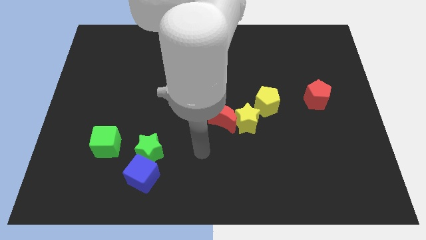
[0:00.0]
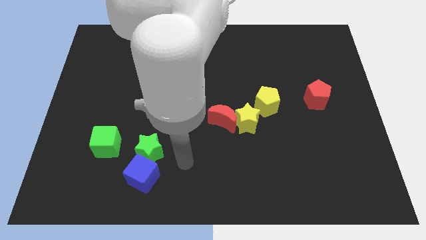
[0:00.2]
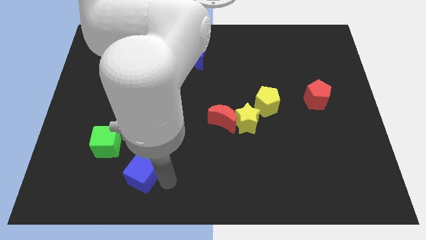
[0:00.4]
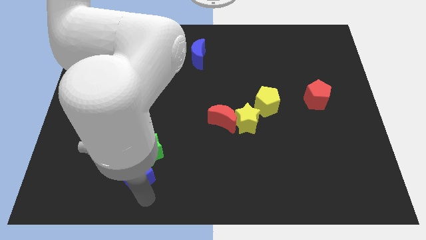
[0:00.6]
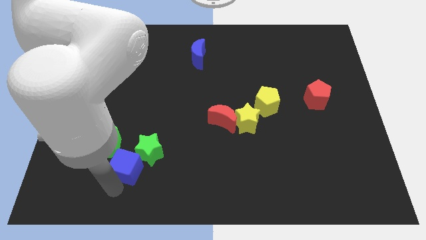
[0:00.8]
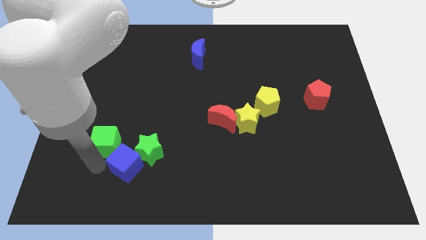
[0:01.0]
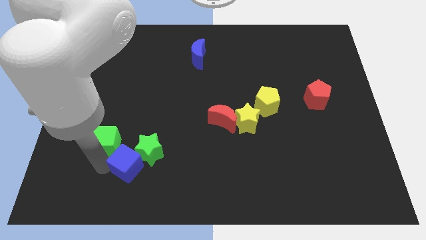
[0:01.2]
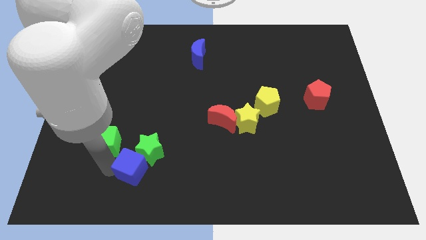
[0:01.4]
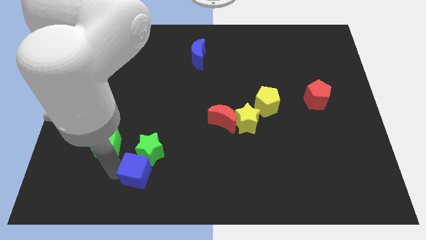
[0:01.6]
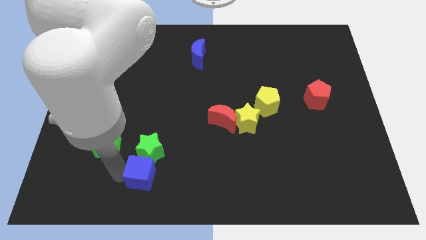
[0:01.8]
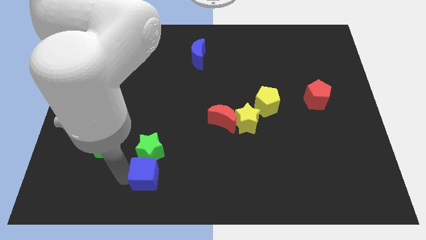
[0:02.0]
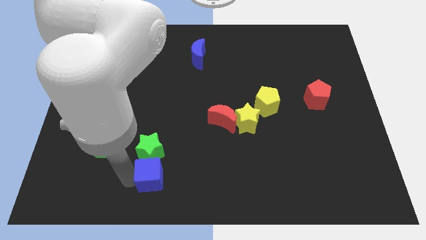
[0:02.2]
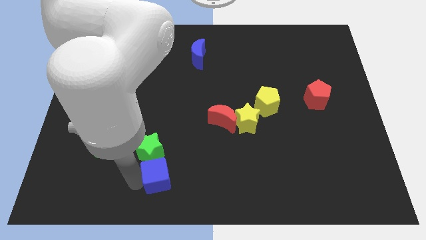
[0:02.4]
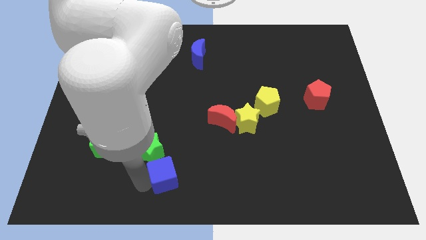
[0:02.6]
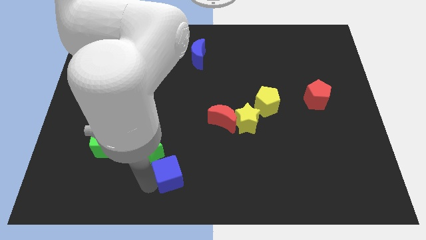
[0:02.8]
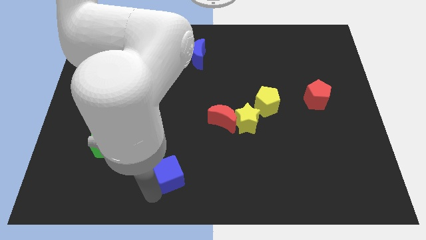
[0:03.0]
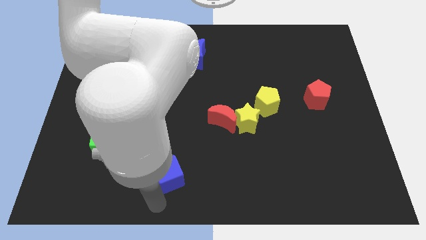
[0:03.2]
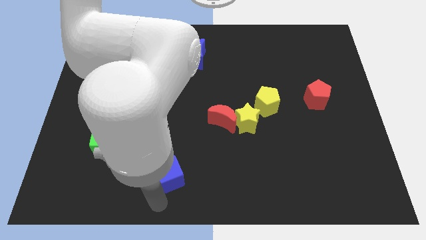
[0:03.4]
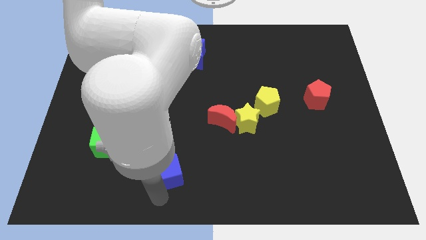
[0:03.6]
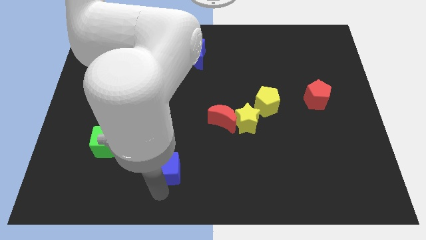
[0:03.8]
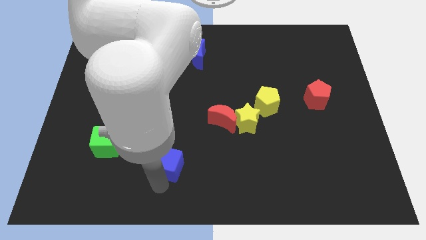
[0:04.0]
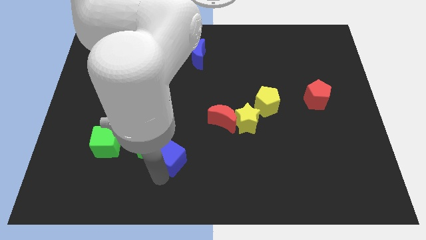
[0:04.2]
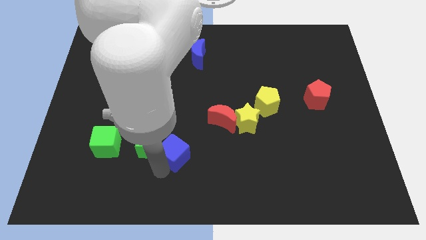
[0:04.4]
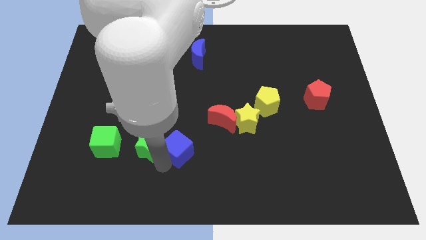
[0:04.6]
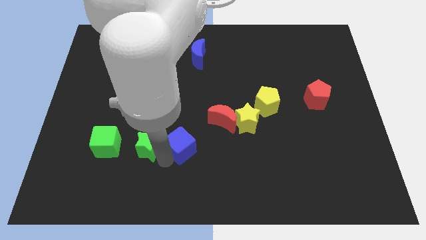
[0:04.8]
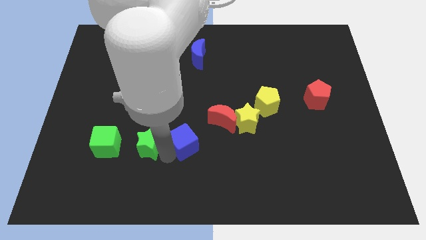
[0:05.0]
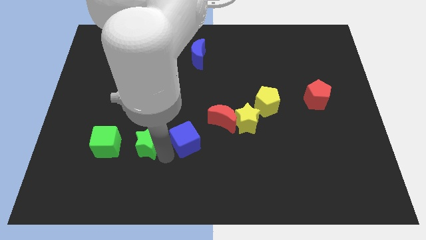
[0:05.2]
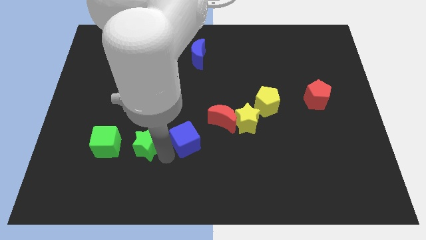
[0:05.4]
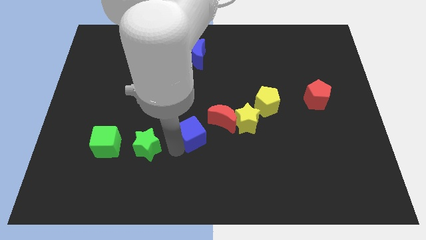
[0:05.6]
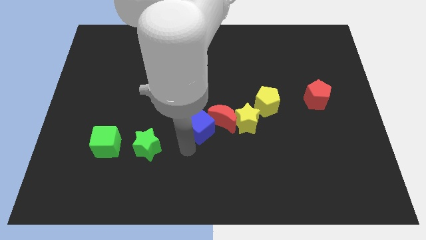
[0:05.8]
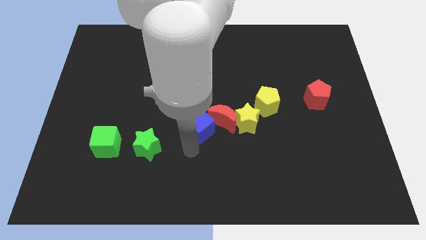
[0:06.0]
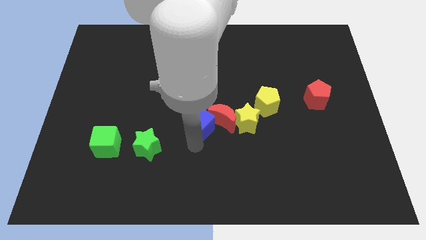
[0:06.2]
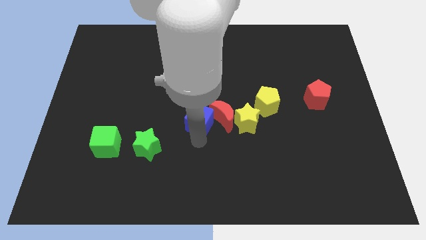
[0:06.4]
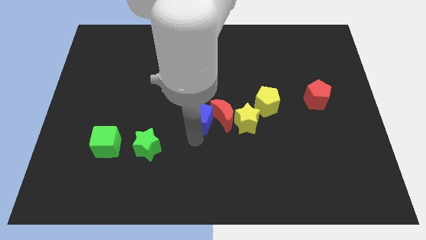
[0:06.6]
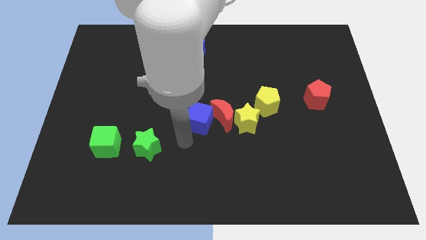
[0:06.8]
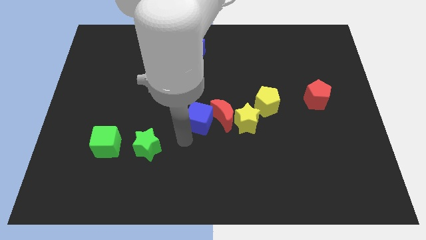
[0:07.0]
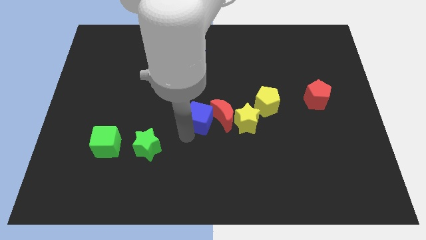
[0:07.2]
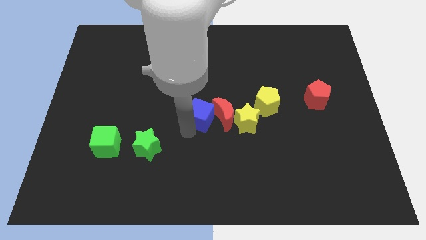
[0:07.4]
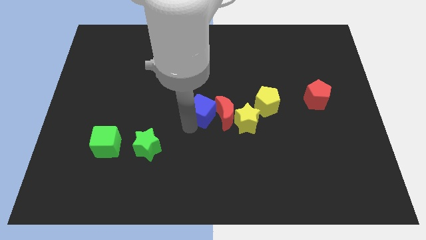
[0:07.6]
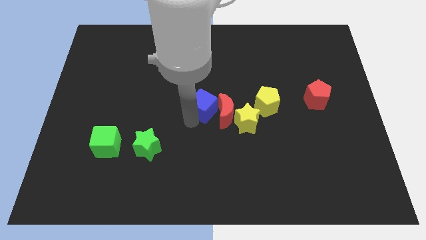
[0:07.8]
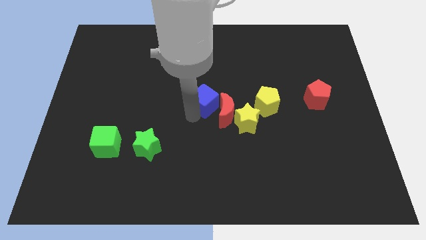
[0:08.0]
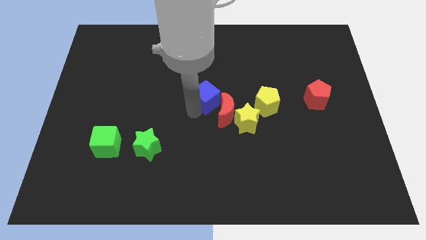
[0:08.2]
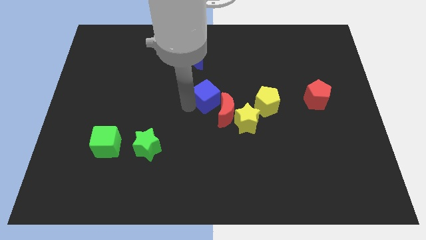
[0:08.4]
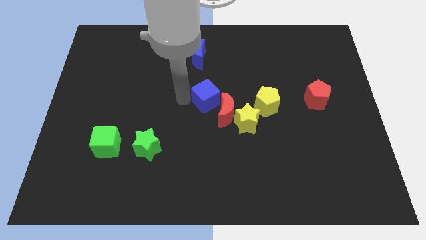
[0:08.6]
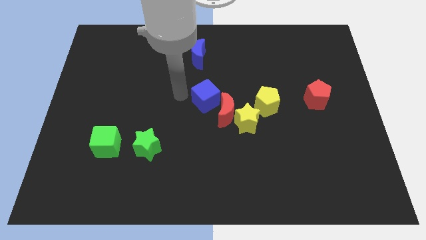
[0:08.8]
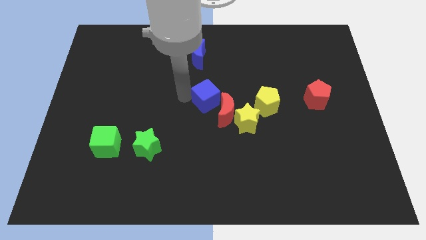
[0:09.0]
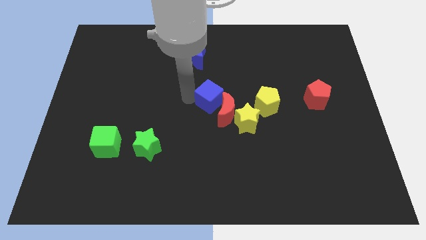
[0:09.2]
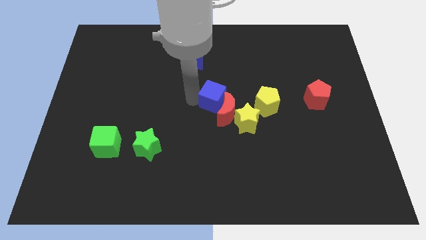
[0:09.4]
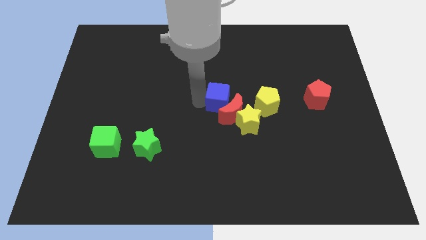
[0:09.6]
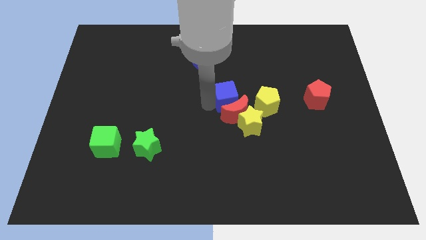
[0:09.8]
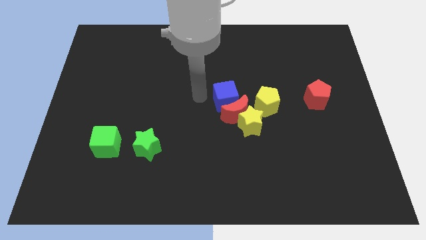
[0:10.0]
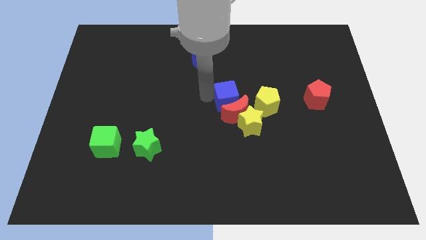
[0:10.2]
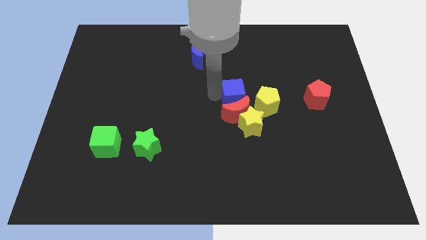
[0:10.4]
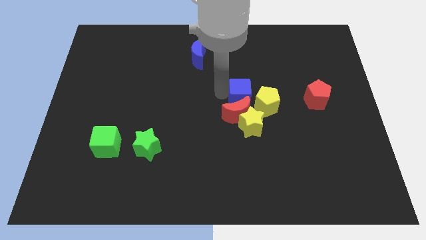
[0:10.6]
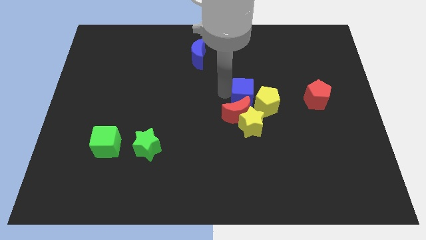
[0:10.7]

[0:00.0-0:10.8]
slide the blue cube to the yellow pentagon

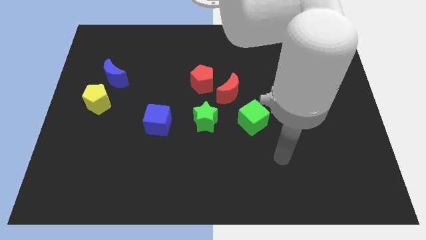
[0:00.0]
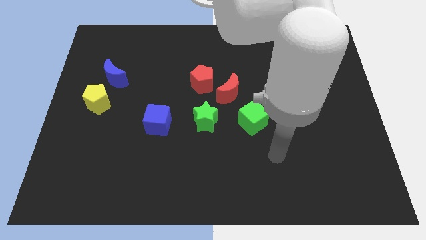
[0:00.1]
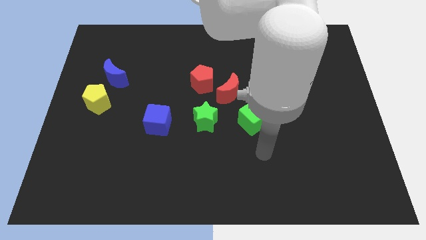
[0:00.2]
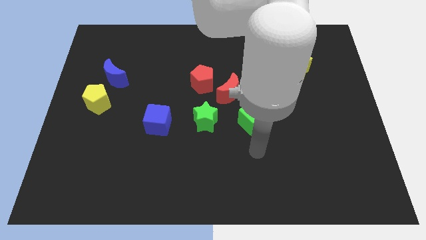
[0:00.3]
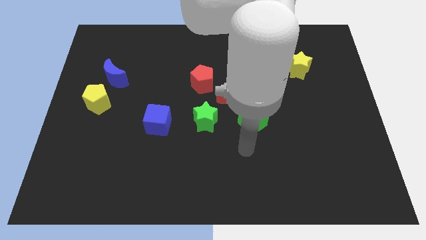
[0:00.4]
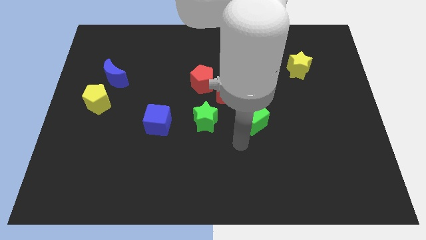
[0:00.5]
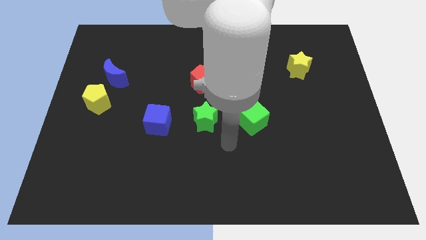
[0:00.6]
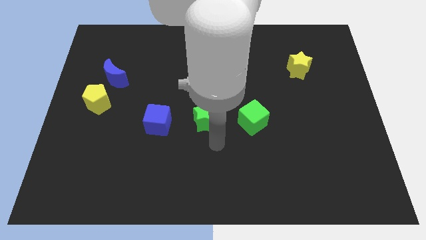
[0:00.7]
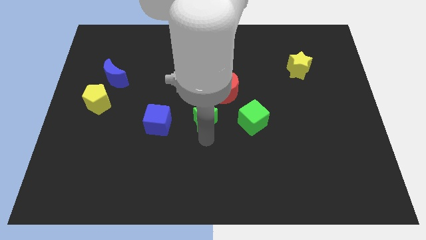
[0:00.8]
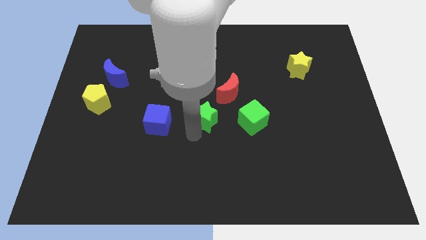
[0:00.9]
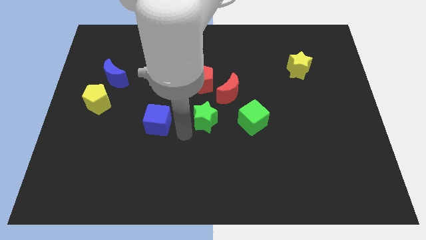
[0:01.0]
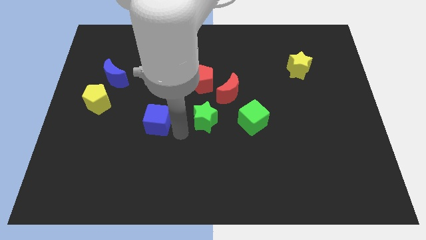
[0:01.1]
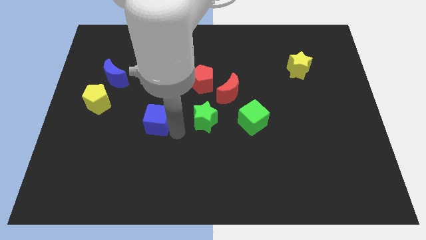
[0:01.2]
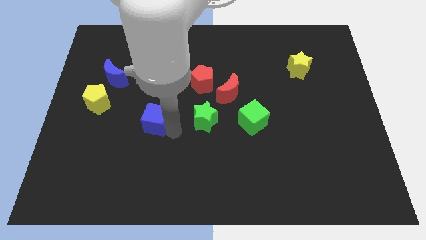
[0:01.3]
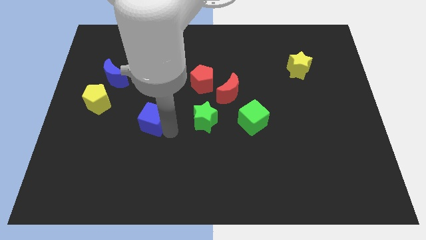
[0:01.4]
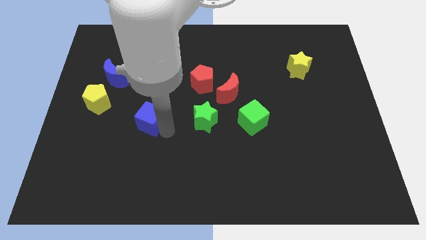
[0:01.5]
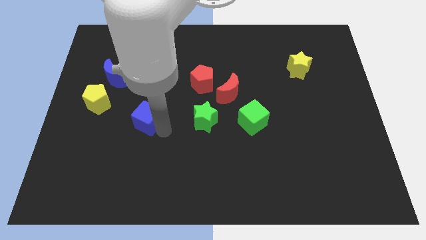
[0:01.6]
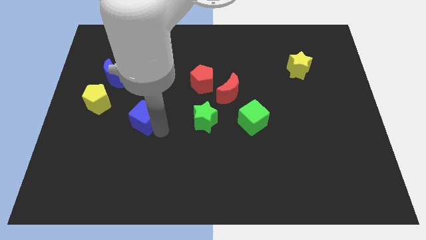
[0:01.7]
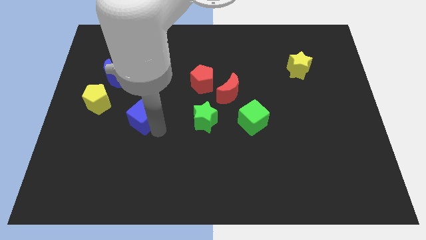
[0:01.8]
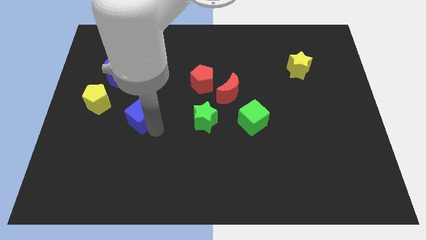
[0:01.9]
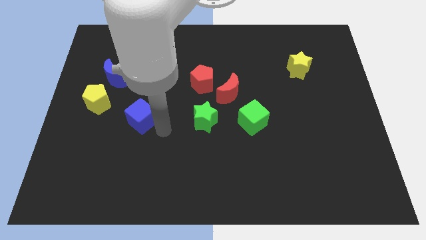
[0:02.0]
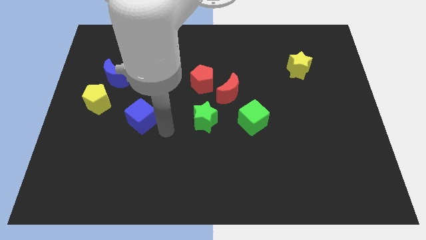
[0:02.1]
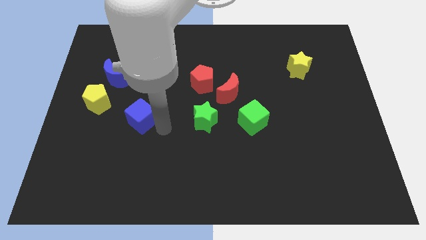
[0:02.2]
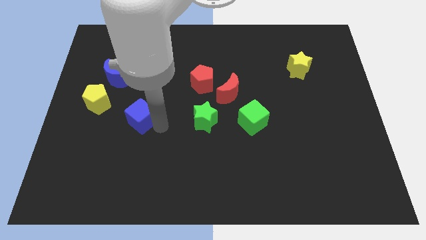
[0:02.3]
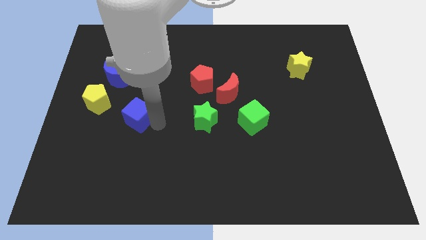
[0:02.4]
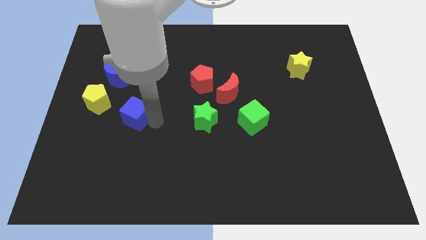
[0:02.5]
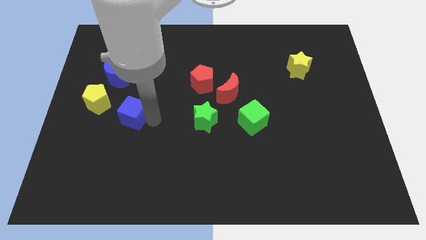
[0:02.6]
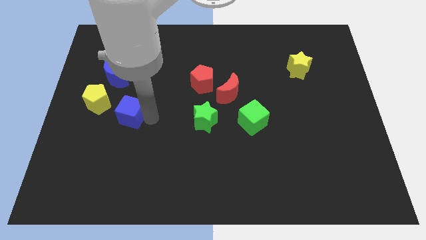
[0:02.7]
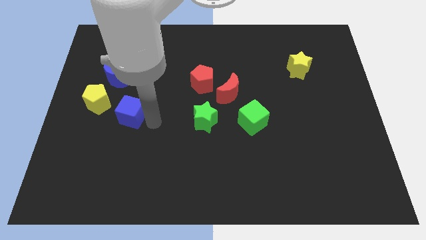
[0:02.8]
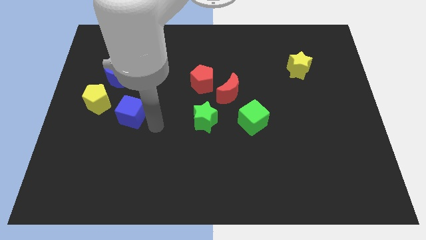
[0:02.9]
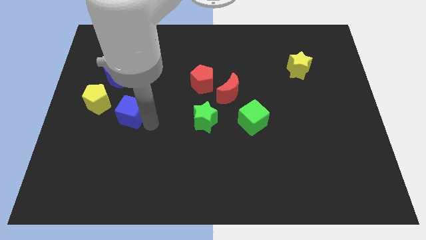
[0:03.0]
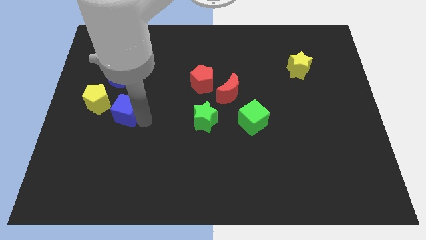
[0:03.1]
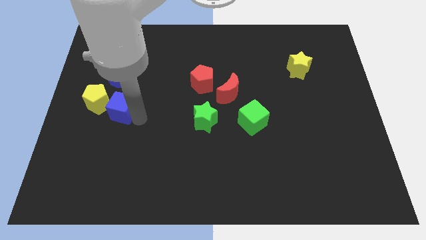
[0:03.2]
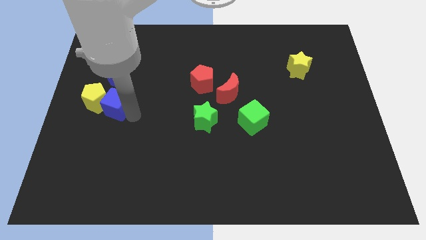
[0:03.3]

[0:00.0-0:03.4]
push the blue cube to the yellow pentagon
